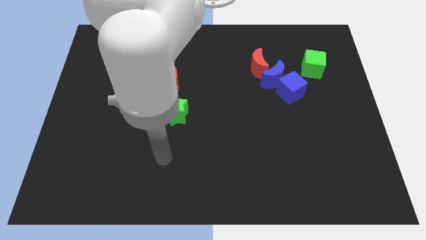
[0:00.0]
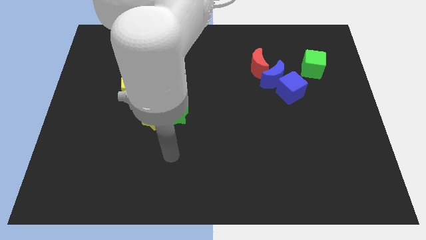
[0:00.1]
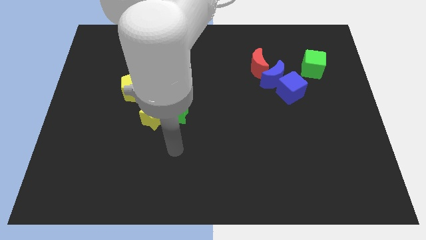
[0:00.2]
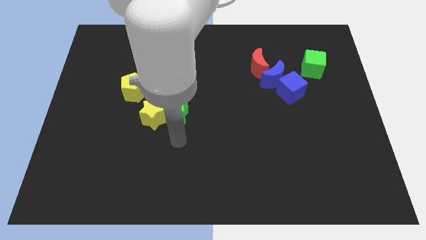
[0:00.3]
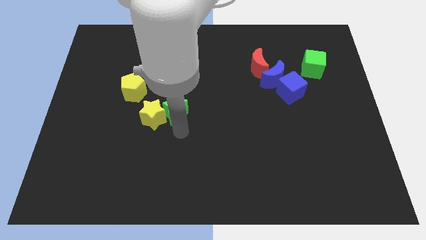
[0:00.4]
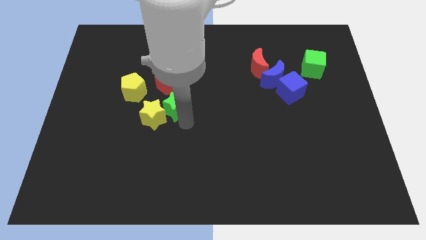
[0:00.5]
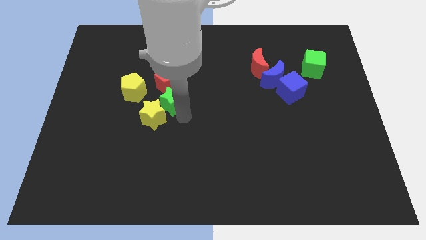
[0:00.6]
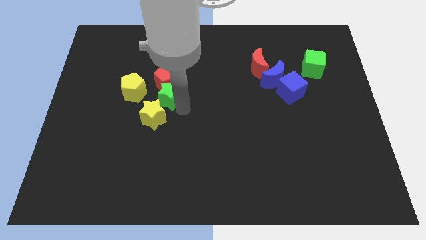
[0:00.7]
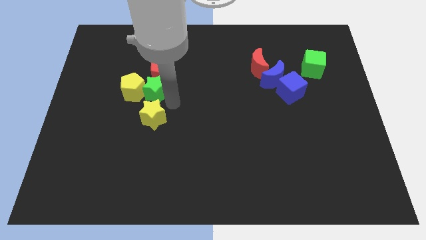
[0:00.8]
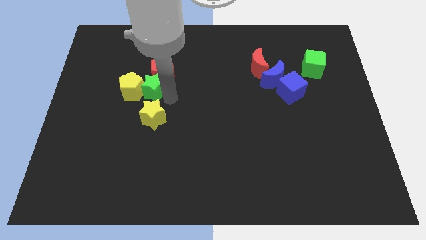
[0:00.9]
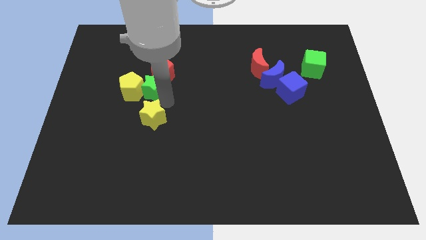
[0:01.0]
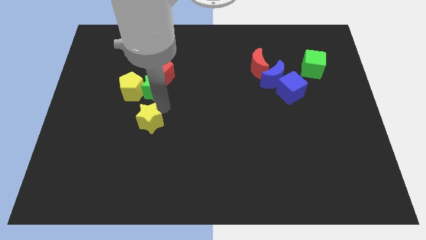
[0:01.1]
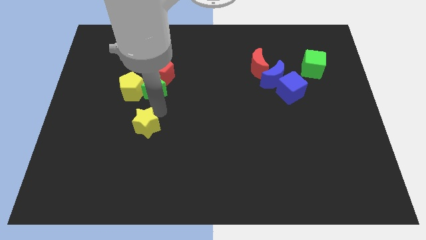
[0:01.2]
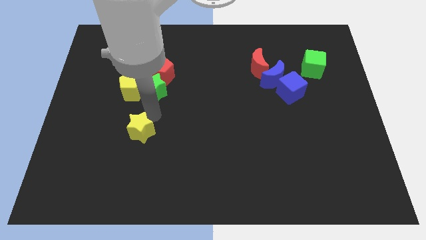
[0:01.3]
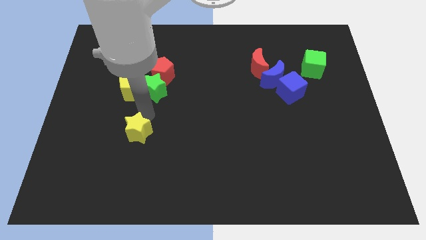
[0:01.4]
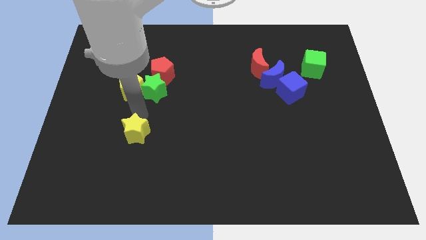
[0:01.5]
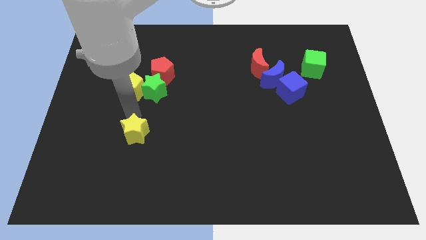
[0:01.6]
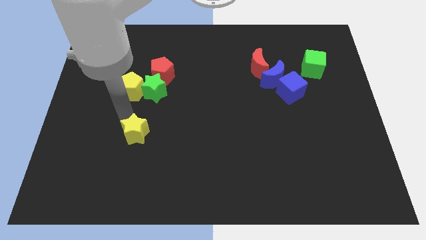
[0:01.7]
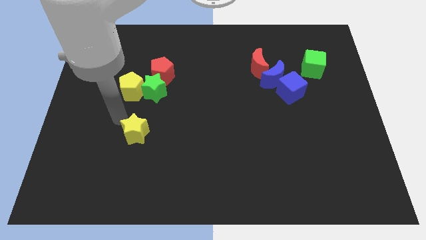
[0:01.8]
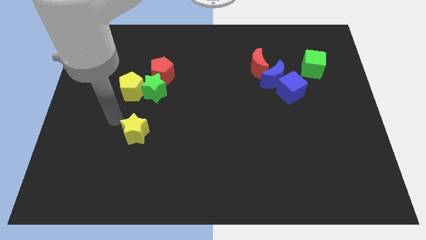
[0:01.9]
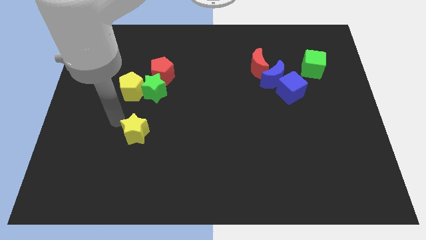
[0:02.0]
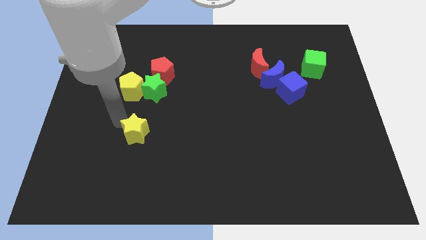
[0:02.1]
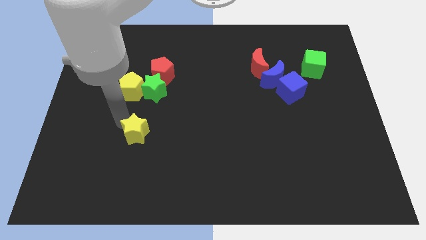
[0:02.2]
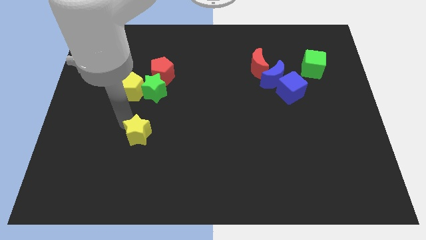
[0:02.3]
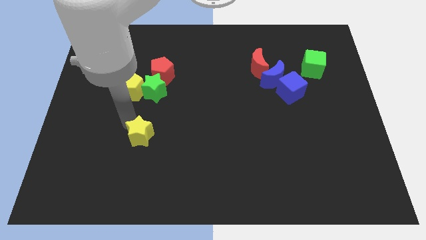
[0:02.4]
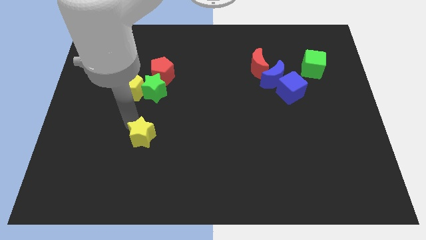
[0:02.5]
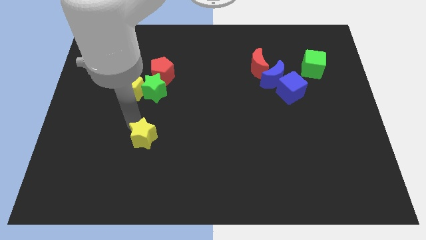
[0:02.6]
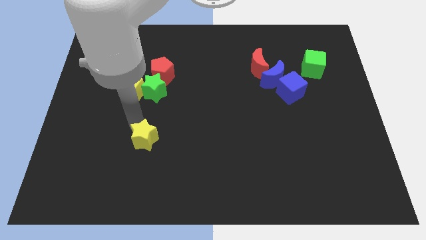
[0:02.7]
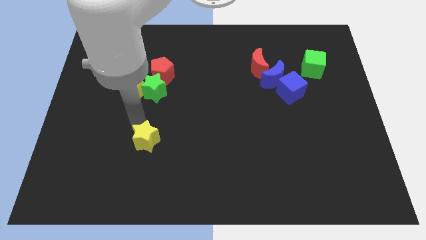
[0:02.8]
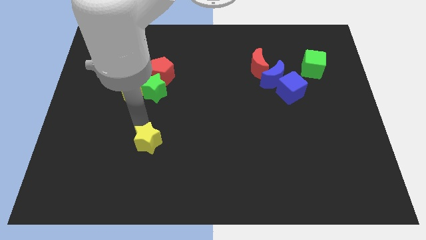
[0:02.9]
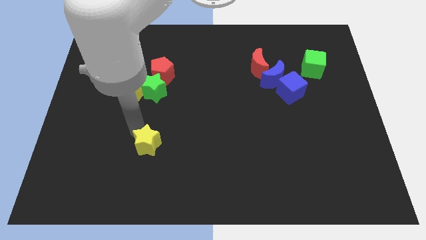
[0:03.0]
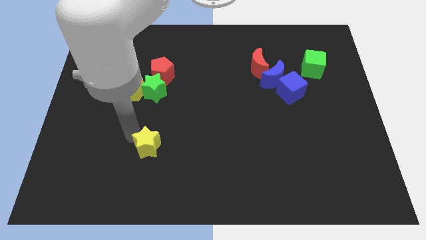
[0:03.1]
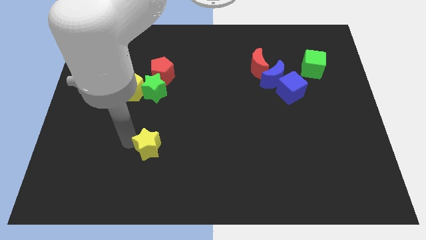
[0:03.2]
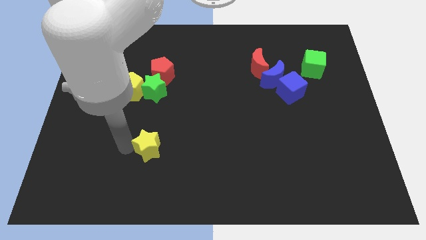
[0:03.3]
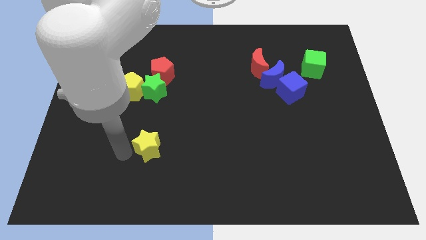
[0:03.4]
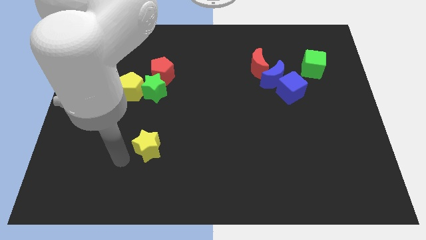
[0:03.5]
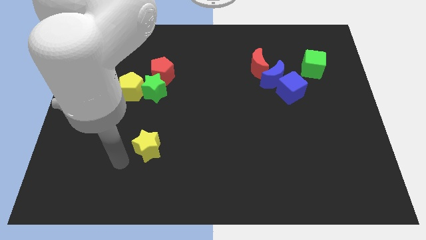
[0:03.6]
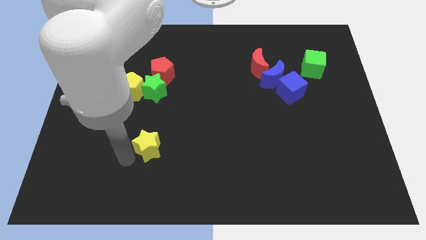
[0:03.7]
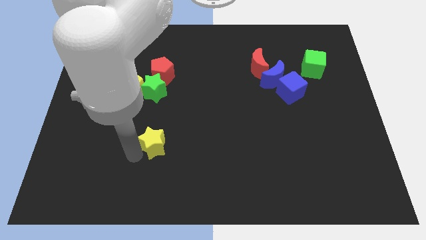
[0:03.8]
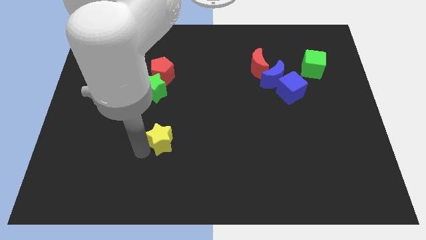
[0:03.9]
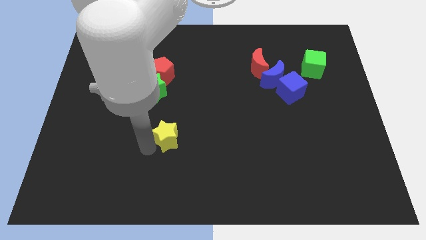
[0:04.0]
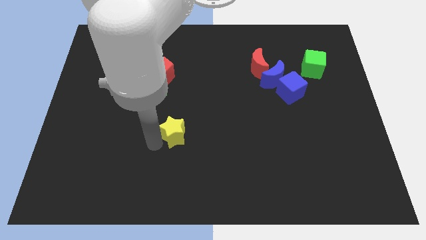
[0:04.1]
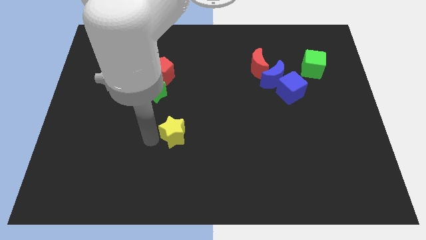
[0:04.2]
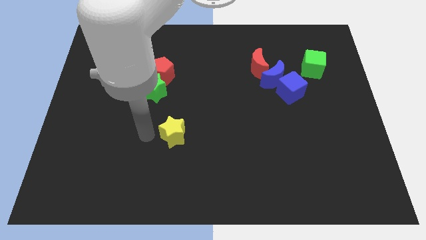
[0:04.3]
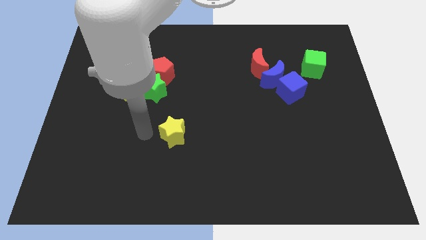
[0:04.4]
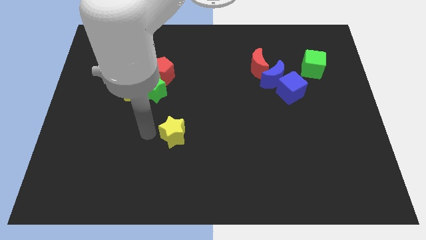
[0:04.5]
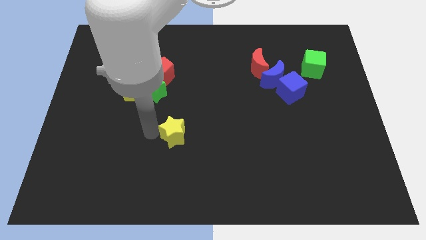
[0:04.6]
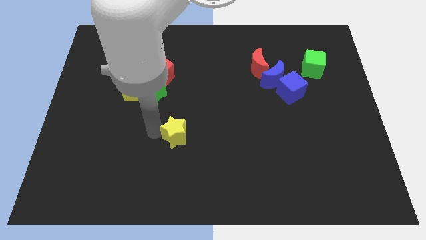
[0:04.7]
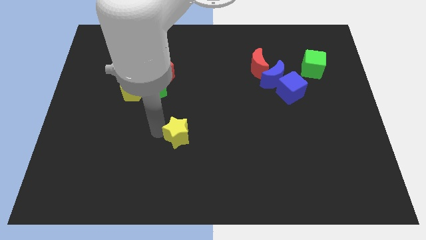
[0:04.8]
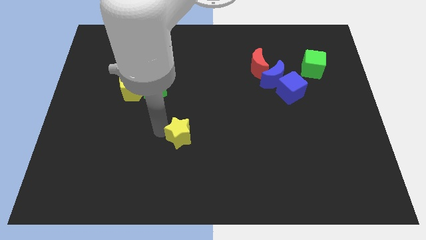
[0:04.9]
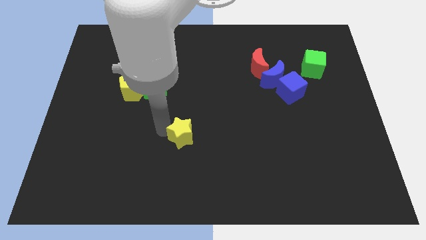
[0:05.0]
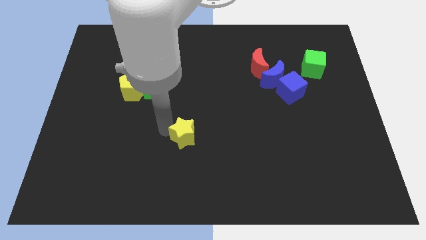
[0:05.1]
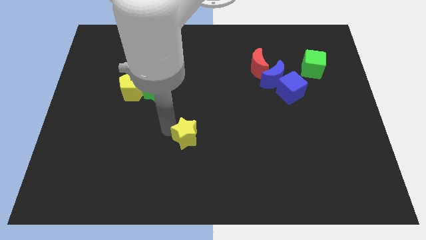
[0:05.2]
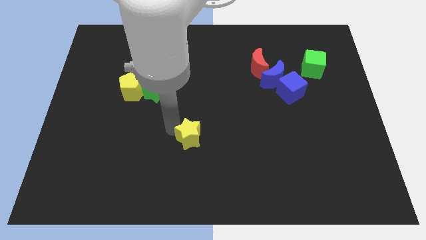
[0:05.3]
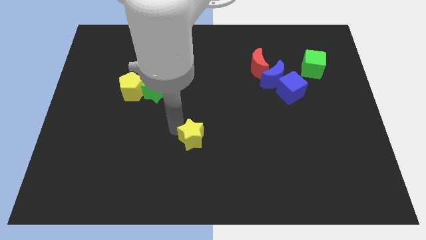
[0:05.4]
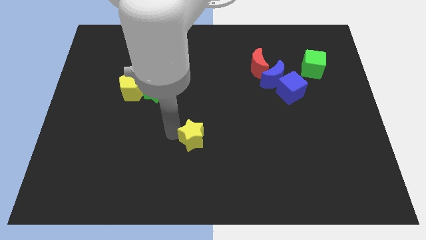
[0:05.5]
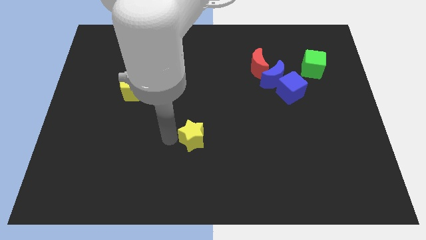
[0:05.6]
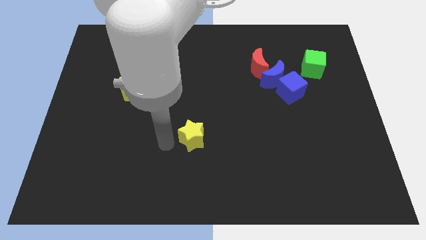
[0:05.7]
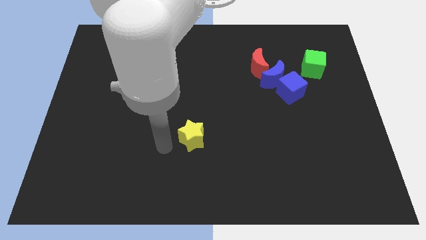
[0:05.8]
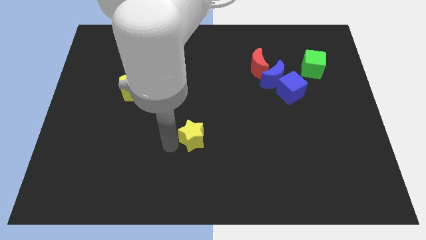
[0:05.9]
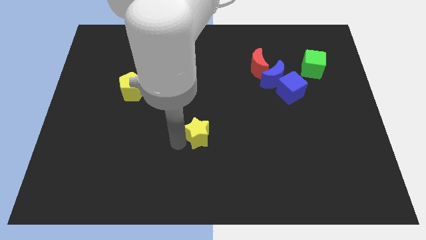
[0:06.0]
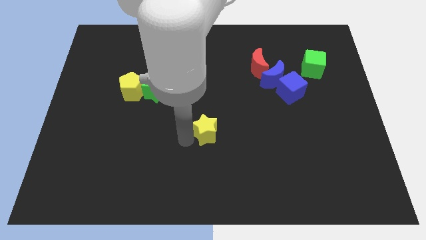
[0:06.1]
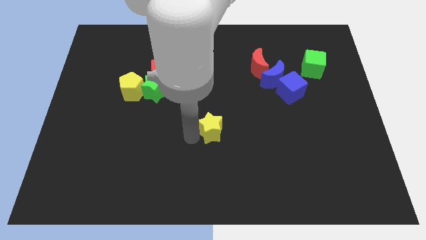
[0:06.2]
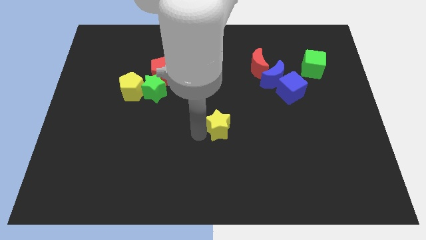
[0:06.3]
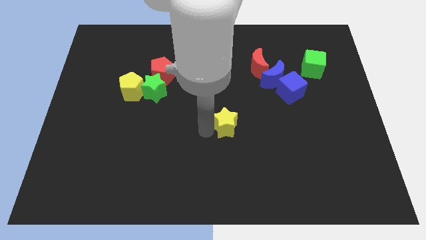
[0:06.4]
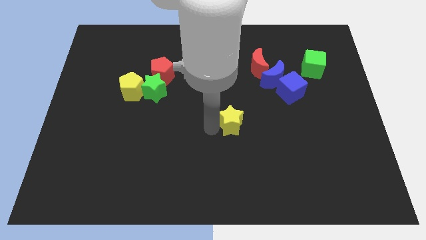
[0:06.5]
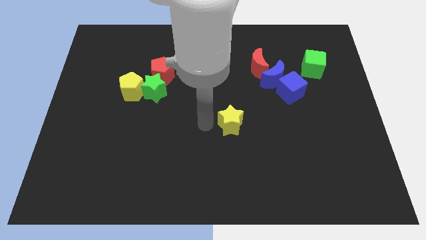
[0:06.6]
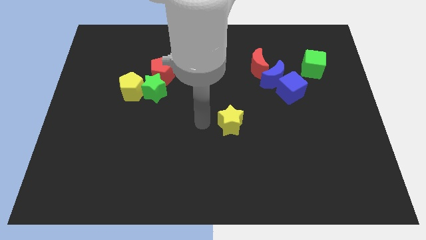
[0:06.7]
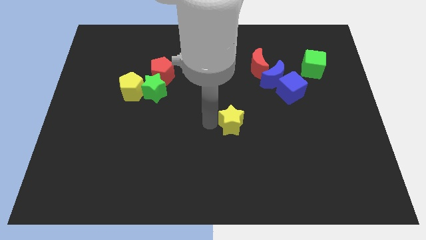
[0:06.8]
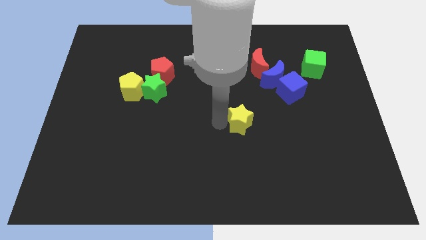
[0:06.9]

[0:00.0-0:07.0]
push the yellow star right

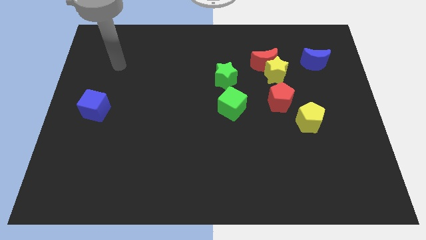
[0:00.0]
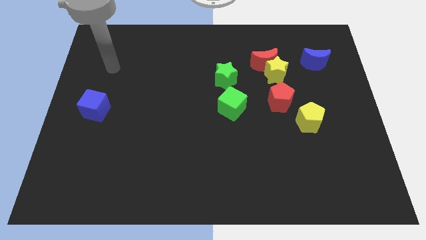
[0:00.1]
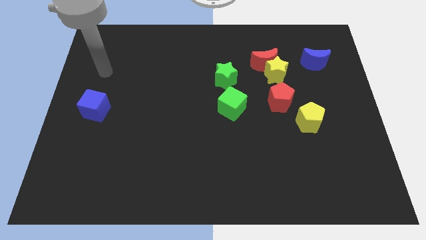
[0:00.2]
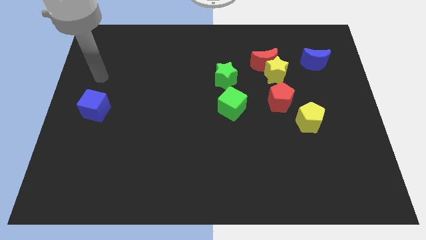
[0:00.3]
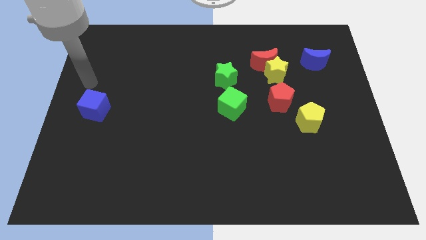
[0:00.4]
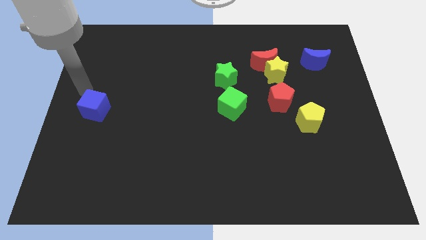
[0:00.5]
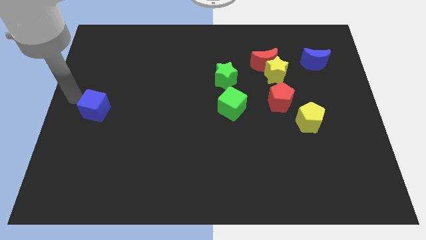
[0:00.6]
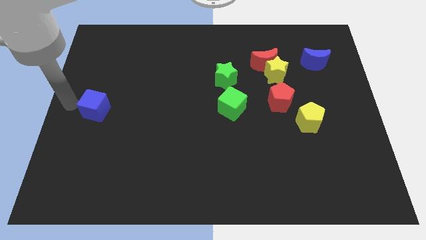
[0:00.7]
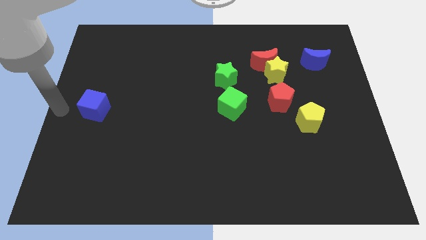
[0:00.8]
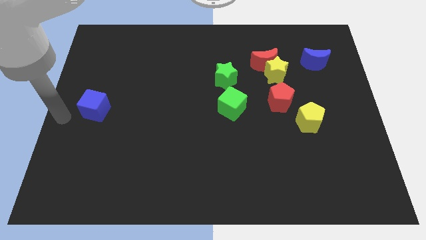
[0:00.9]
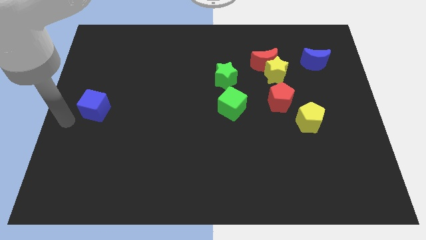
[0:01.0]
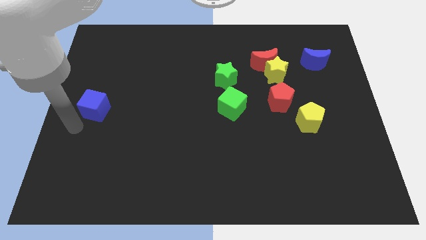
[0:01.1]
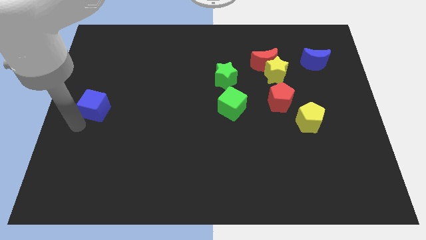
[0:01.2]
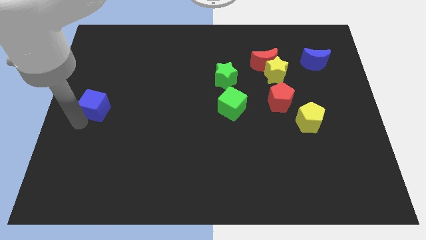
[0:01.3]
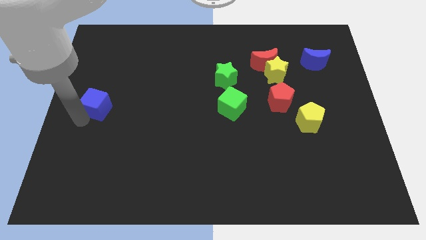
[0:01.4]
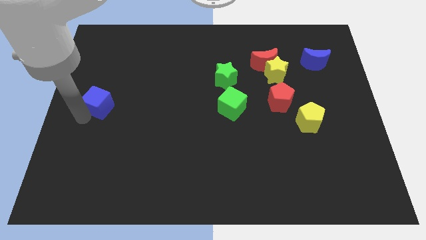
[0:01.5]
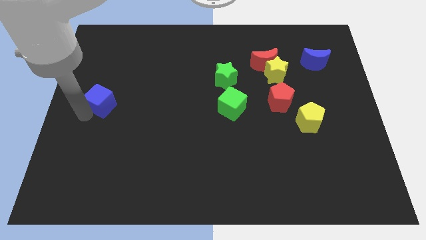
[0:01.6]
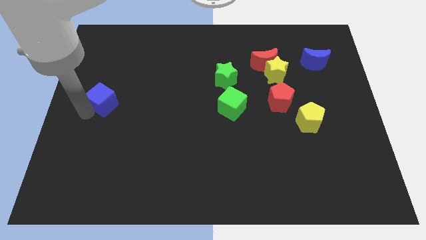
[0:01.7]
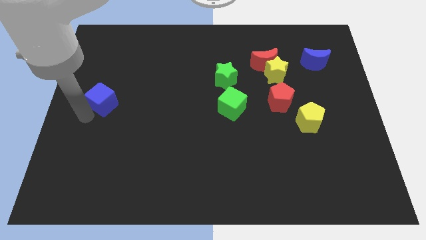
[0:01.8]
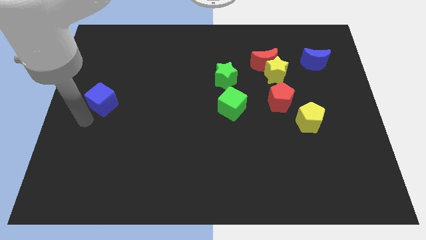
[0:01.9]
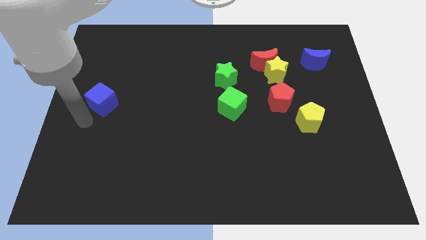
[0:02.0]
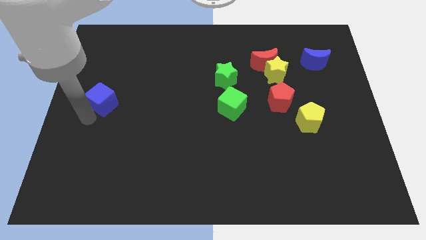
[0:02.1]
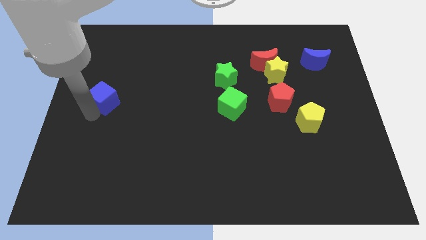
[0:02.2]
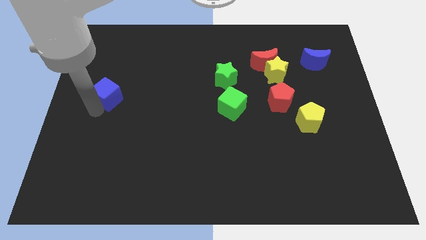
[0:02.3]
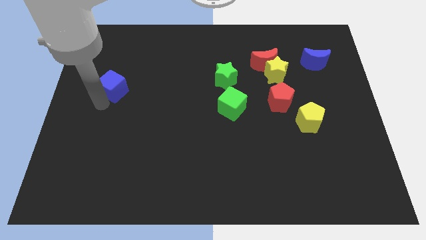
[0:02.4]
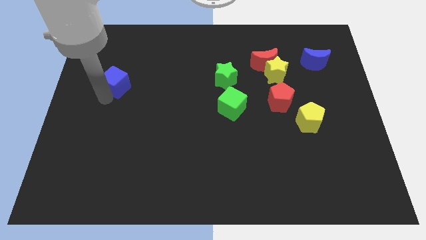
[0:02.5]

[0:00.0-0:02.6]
move the blue cube a little bit up and to the right
